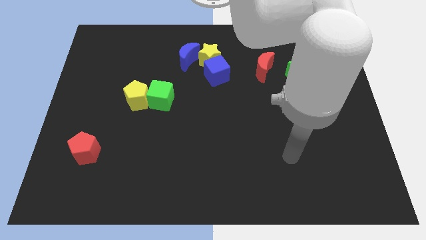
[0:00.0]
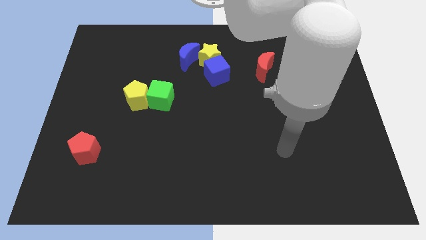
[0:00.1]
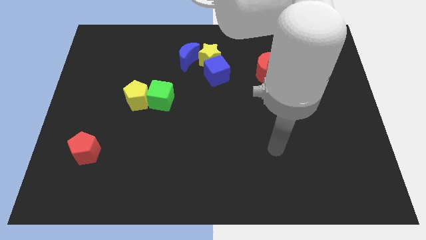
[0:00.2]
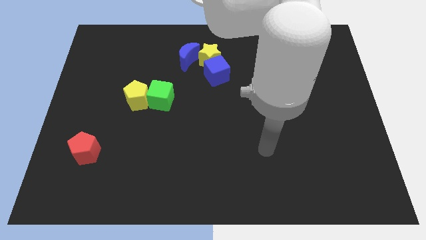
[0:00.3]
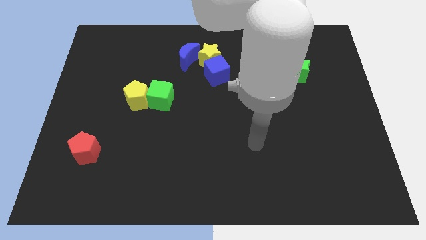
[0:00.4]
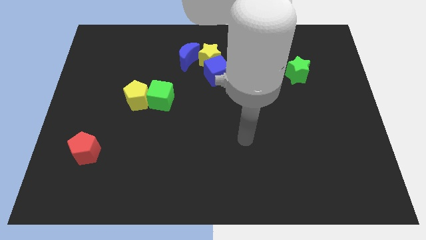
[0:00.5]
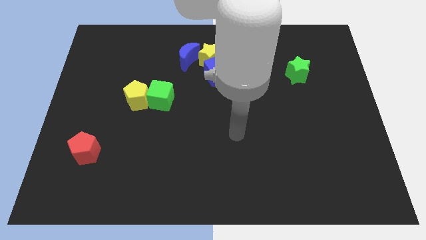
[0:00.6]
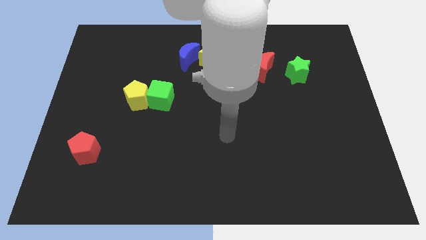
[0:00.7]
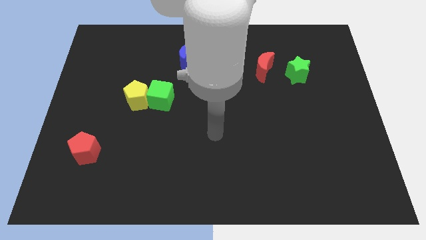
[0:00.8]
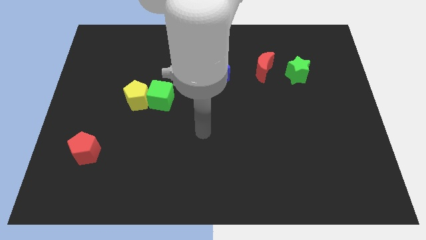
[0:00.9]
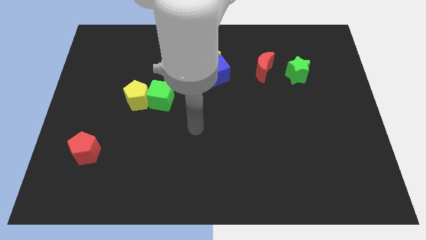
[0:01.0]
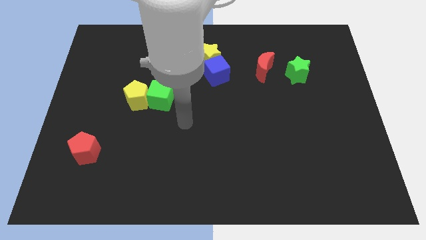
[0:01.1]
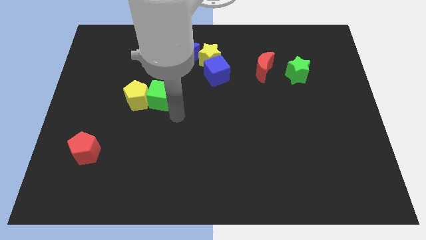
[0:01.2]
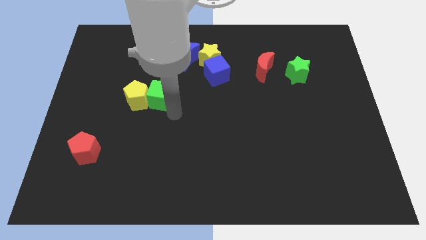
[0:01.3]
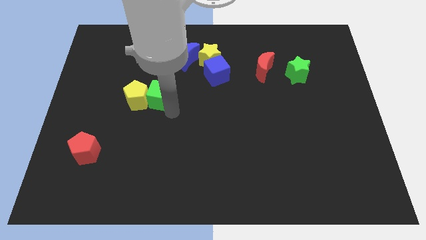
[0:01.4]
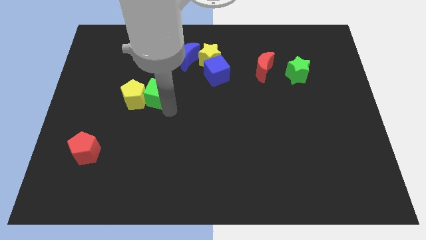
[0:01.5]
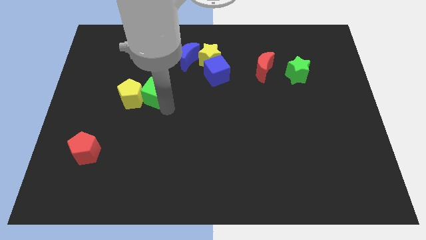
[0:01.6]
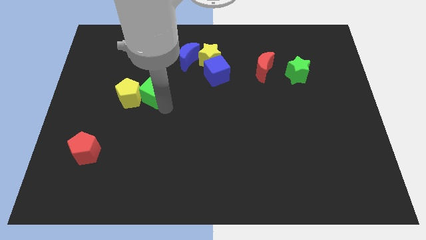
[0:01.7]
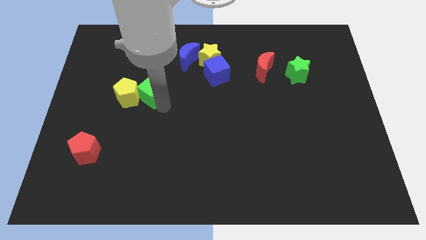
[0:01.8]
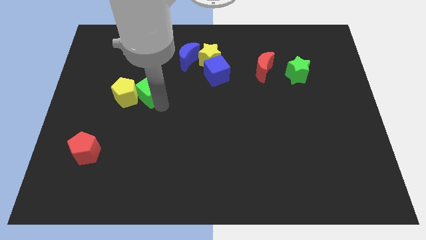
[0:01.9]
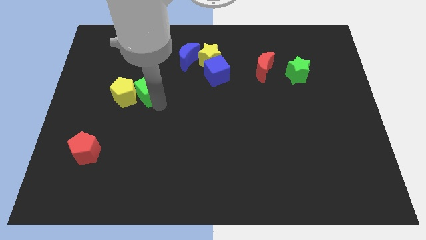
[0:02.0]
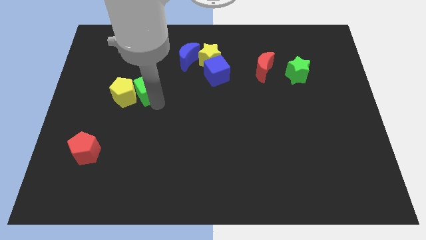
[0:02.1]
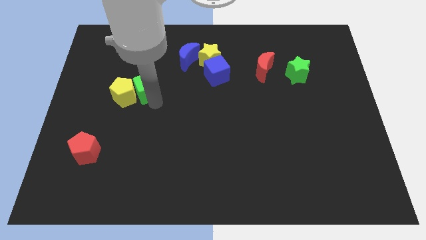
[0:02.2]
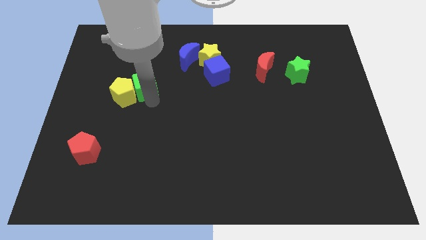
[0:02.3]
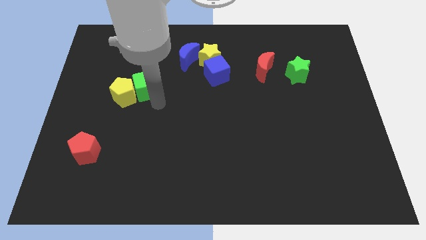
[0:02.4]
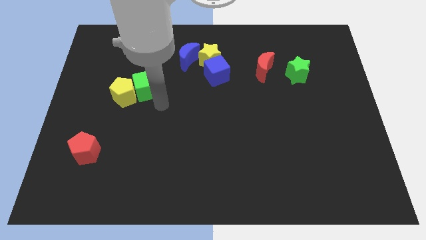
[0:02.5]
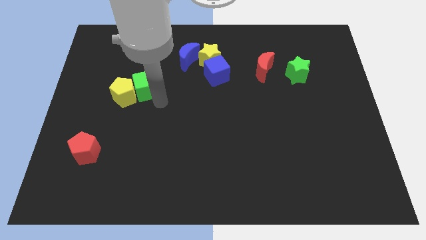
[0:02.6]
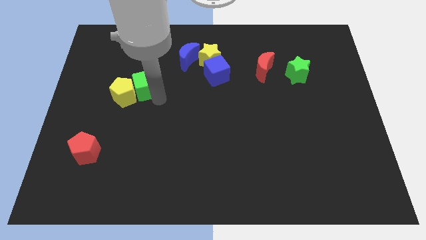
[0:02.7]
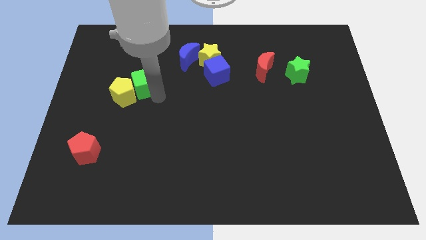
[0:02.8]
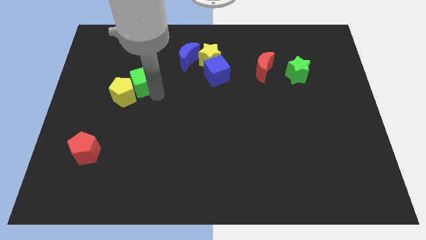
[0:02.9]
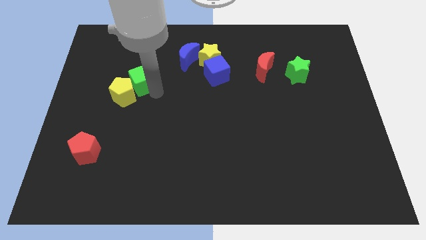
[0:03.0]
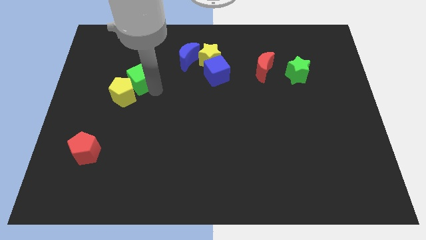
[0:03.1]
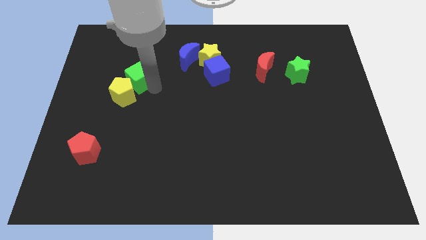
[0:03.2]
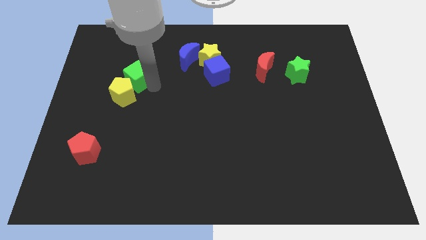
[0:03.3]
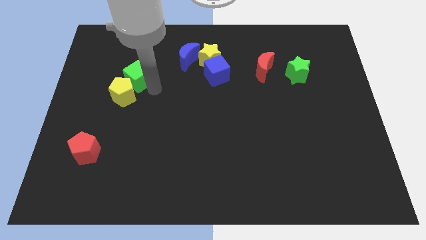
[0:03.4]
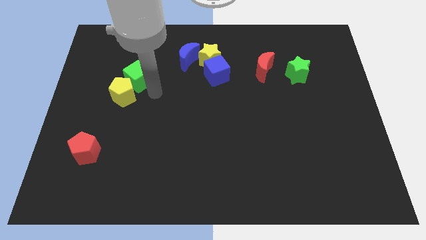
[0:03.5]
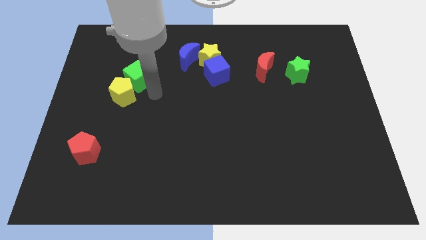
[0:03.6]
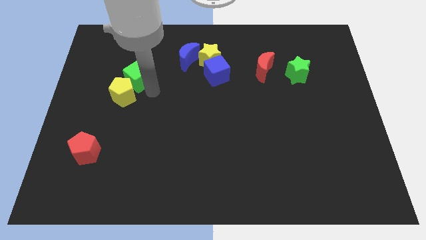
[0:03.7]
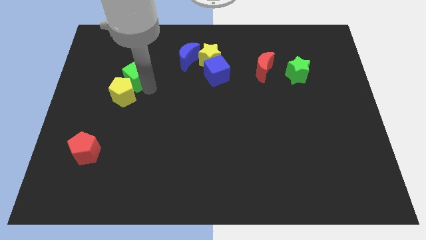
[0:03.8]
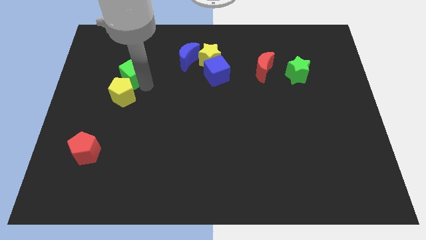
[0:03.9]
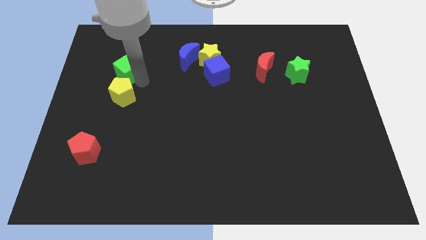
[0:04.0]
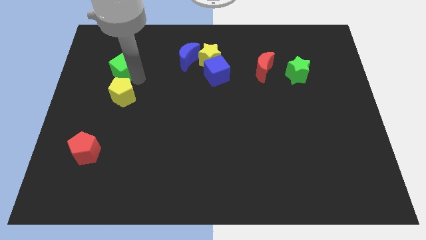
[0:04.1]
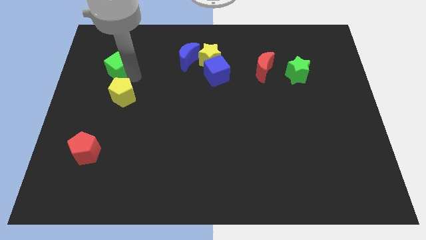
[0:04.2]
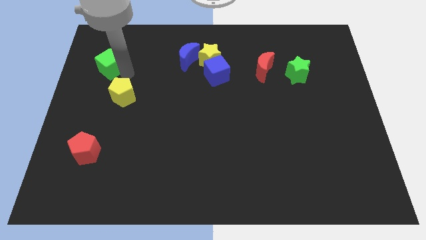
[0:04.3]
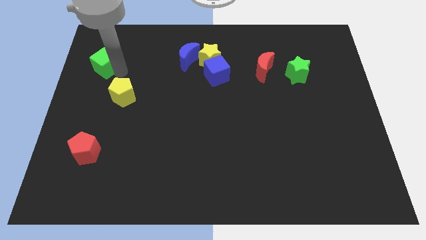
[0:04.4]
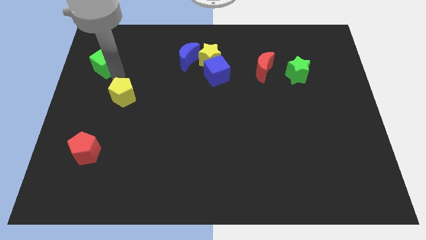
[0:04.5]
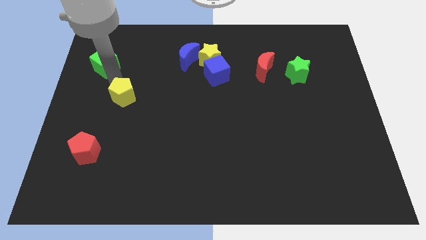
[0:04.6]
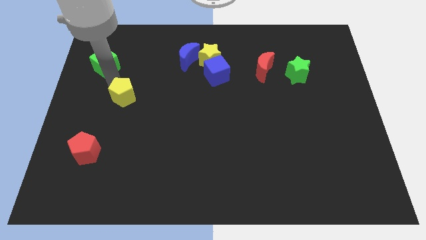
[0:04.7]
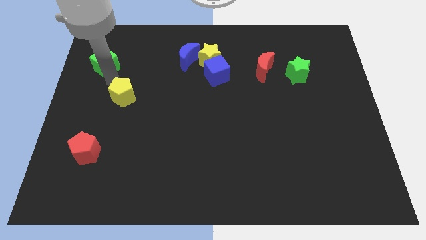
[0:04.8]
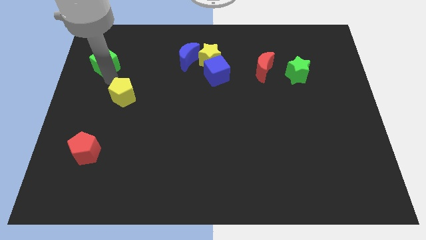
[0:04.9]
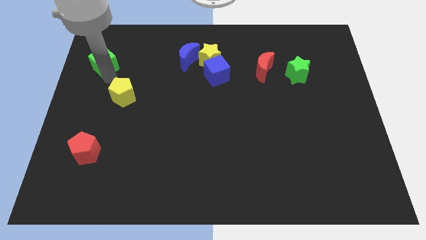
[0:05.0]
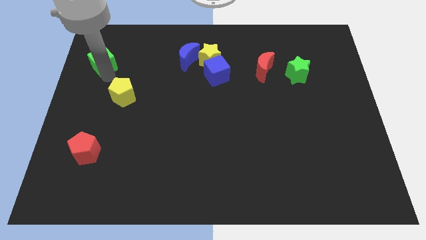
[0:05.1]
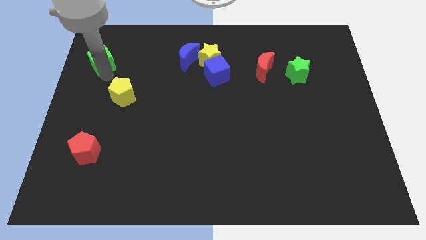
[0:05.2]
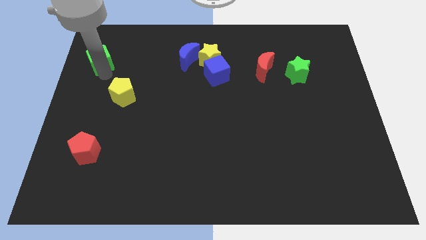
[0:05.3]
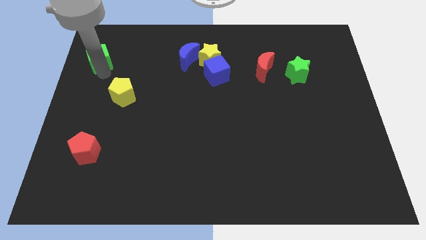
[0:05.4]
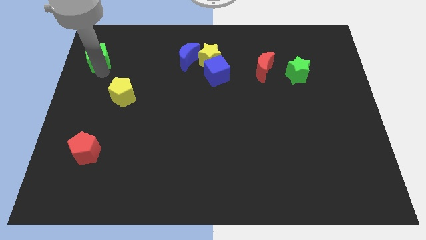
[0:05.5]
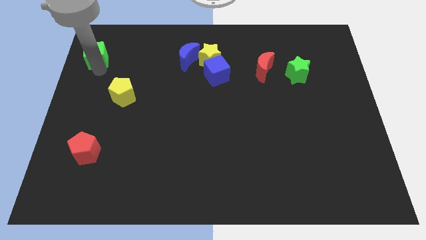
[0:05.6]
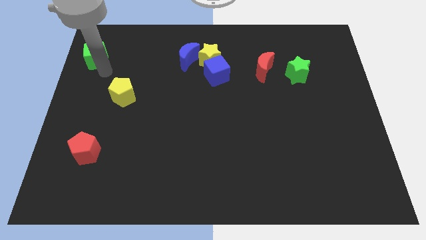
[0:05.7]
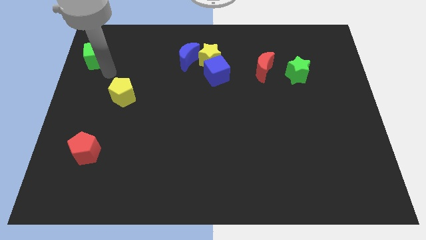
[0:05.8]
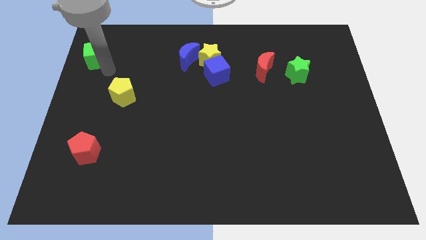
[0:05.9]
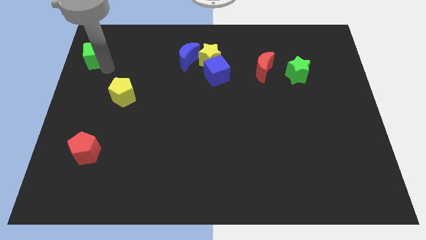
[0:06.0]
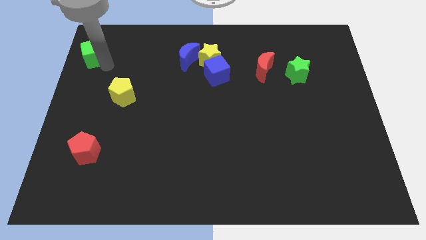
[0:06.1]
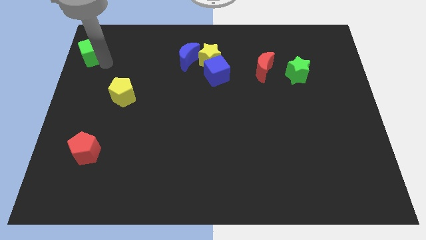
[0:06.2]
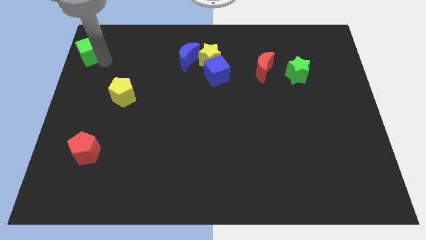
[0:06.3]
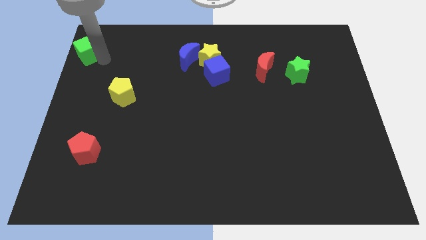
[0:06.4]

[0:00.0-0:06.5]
move the green cube to the top left
